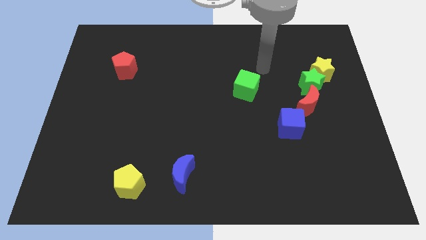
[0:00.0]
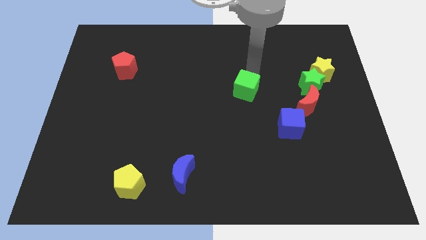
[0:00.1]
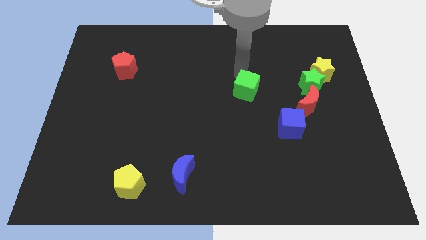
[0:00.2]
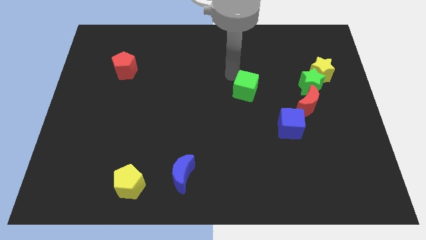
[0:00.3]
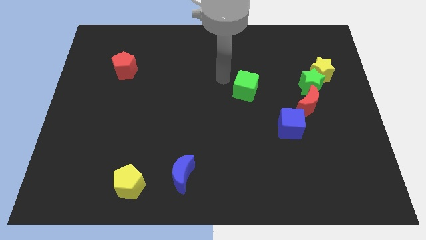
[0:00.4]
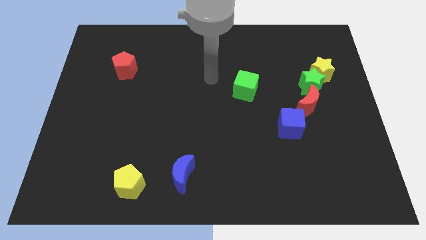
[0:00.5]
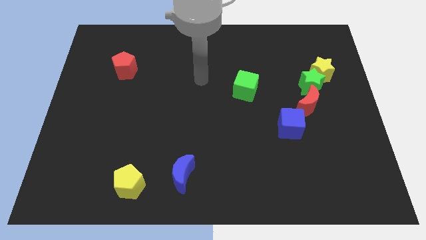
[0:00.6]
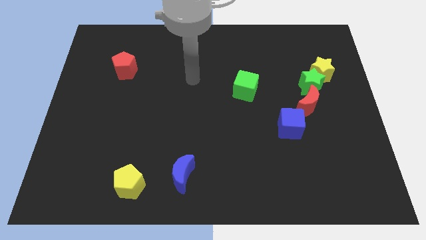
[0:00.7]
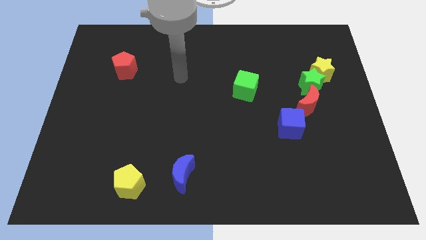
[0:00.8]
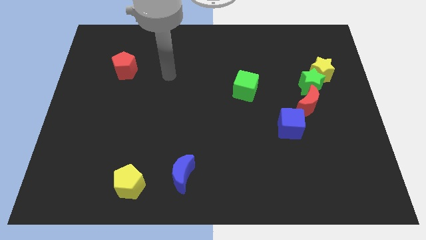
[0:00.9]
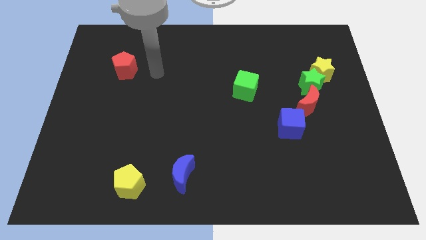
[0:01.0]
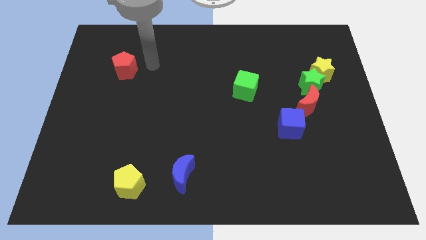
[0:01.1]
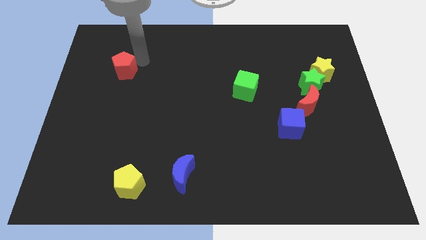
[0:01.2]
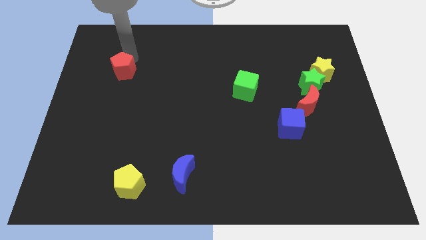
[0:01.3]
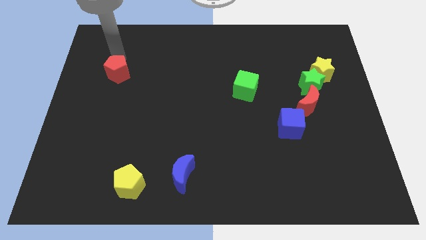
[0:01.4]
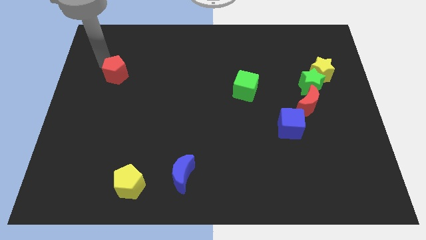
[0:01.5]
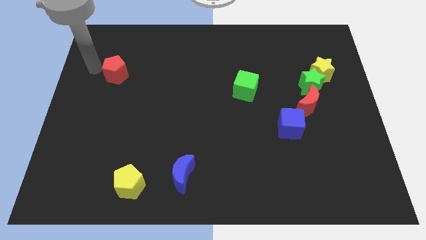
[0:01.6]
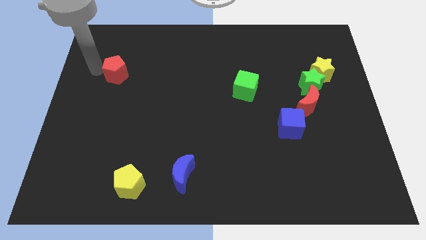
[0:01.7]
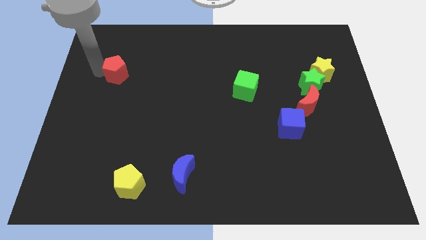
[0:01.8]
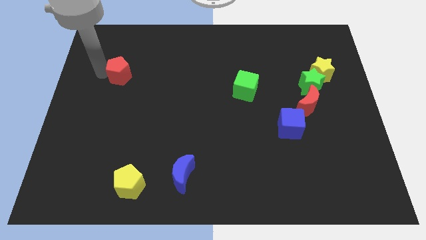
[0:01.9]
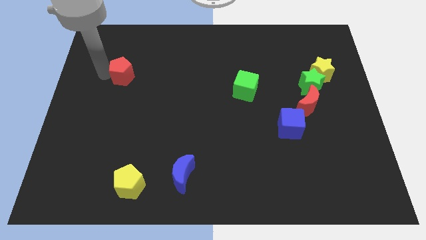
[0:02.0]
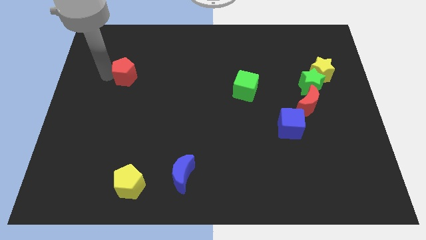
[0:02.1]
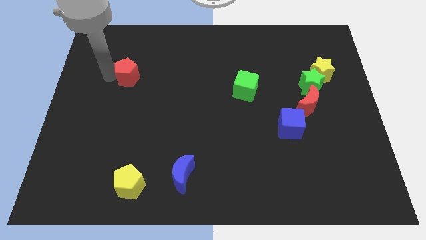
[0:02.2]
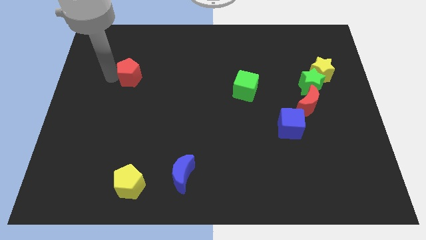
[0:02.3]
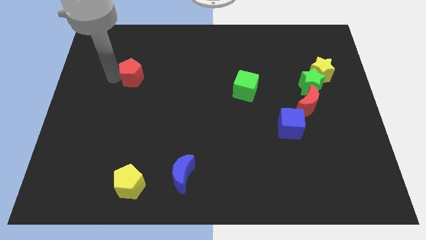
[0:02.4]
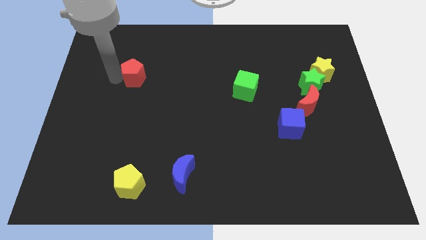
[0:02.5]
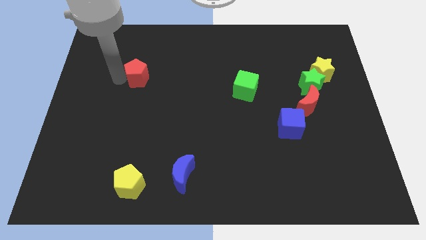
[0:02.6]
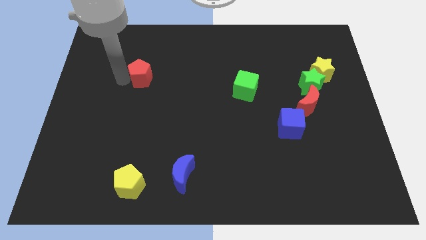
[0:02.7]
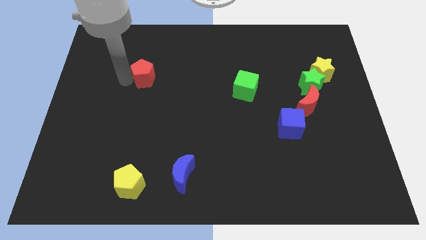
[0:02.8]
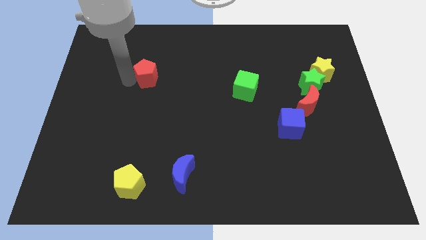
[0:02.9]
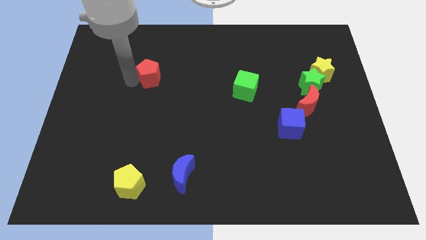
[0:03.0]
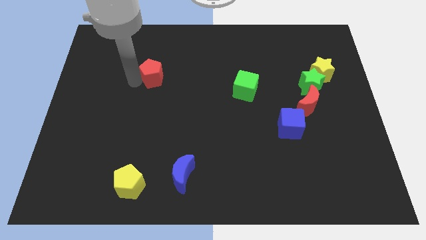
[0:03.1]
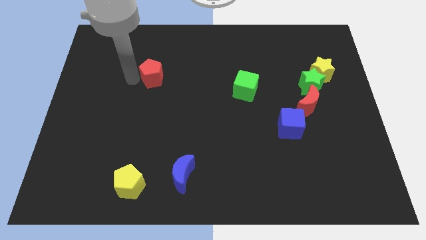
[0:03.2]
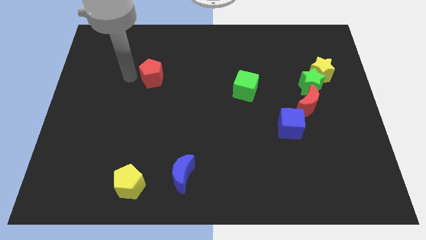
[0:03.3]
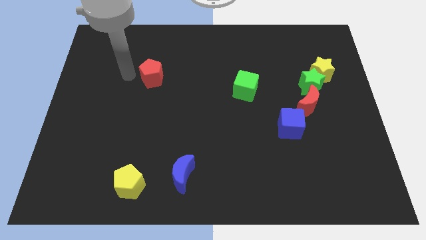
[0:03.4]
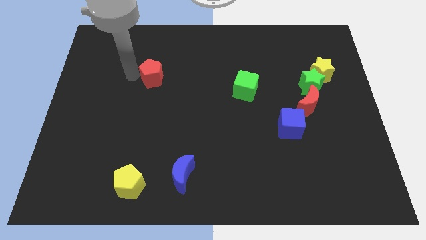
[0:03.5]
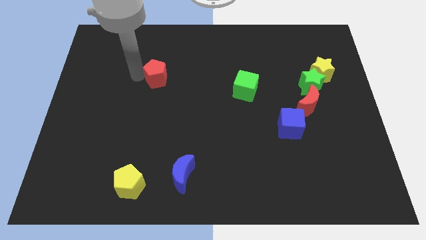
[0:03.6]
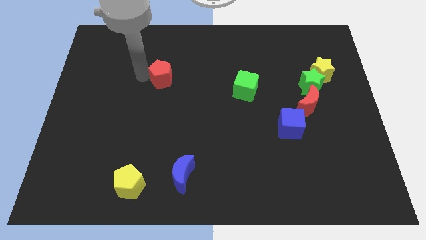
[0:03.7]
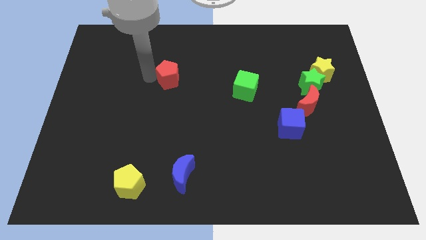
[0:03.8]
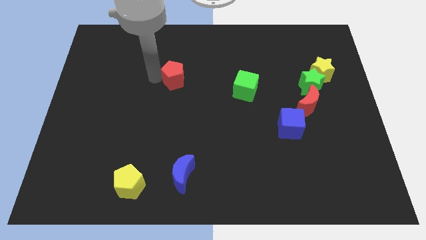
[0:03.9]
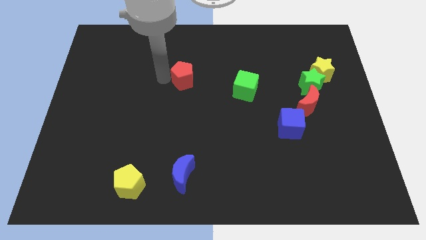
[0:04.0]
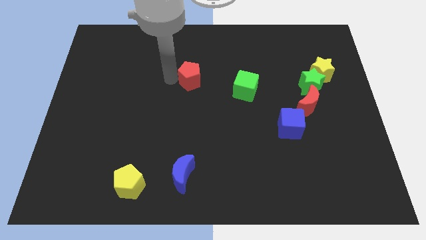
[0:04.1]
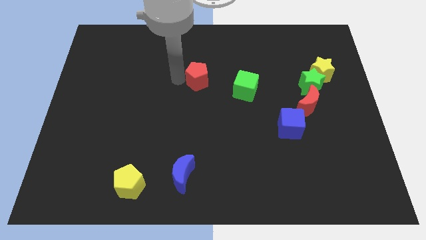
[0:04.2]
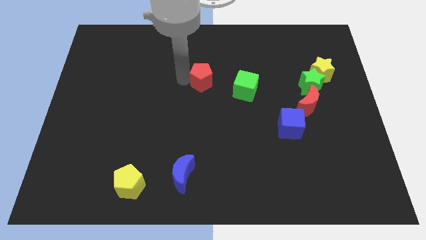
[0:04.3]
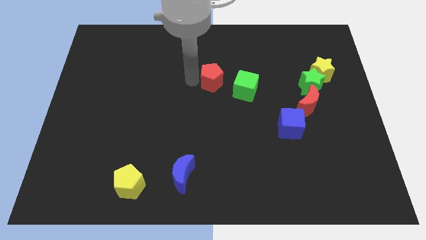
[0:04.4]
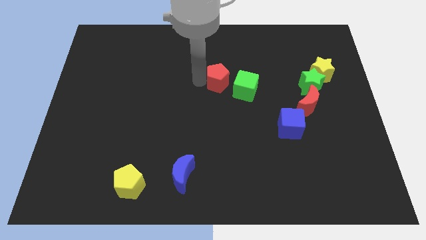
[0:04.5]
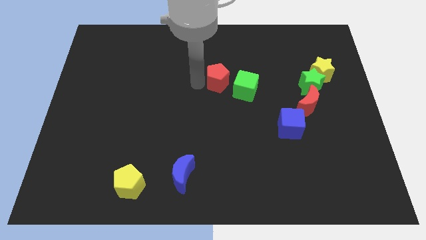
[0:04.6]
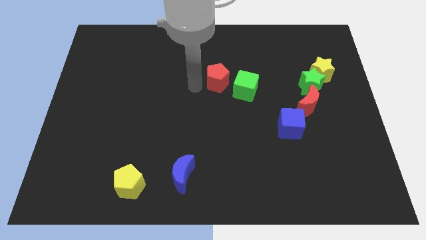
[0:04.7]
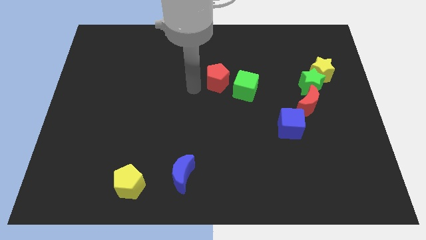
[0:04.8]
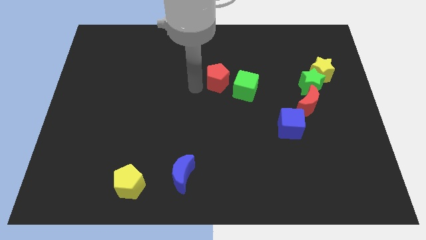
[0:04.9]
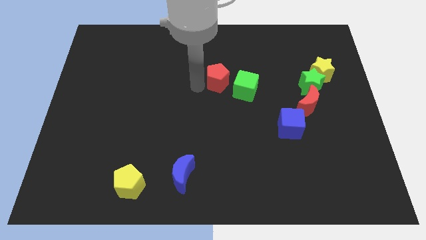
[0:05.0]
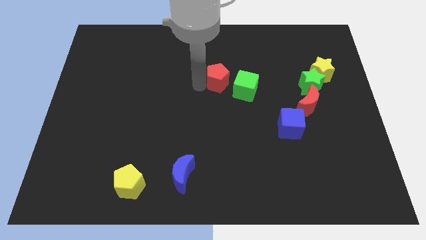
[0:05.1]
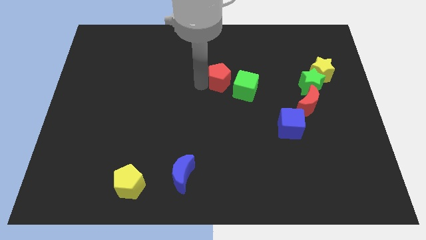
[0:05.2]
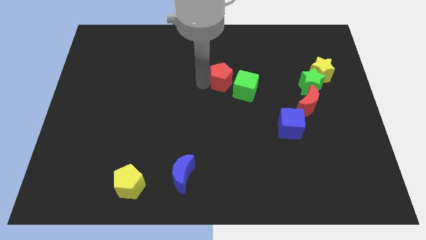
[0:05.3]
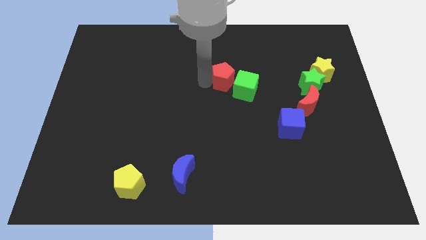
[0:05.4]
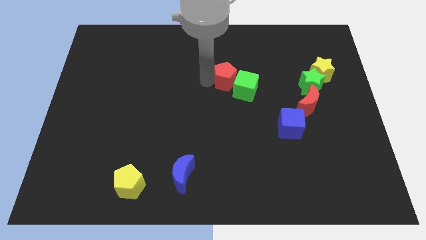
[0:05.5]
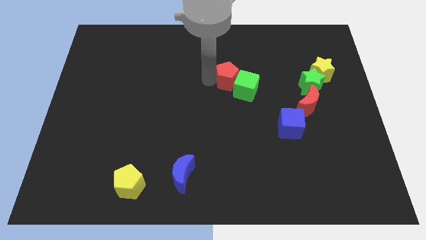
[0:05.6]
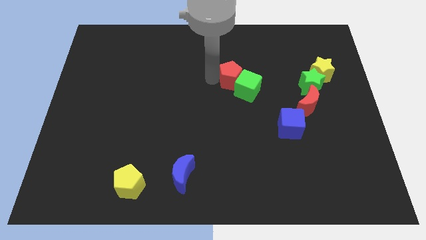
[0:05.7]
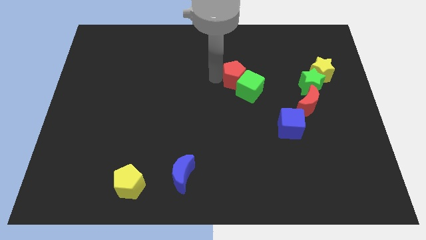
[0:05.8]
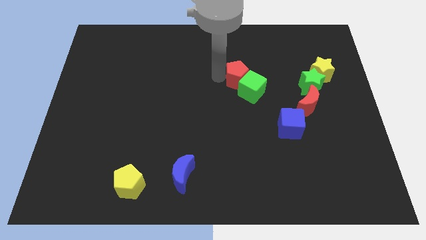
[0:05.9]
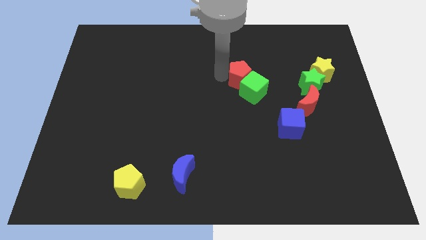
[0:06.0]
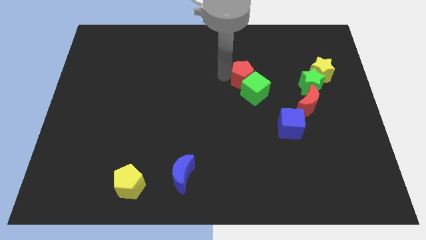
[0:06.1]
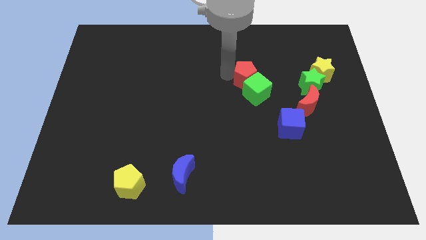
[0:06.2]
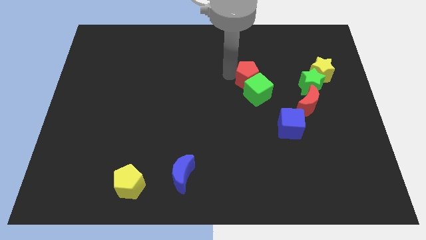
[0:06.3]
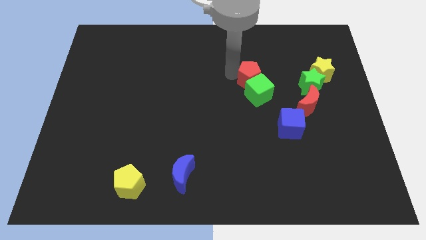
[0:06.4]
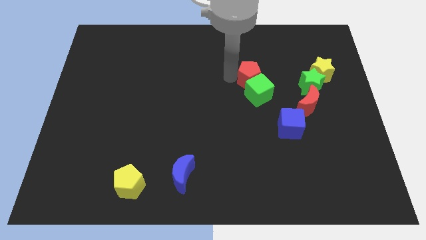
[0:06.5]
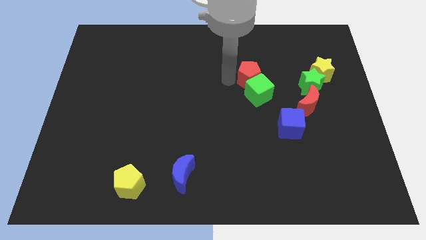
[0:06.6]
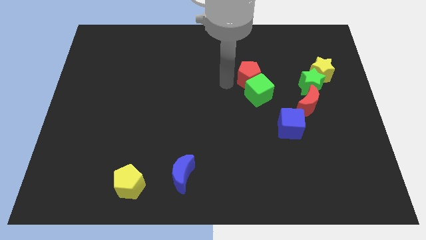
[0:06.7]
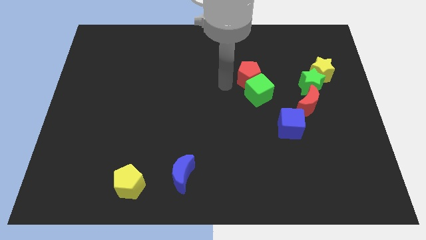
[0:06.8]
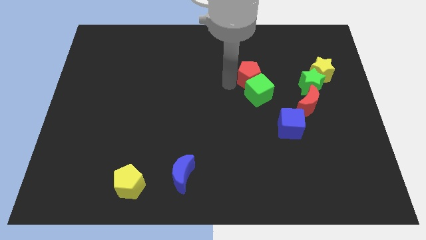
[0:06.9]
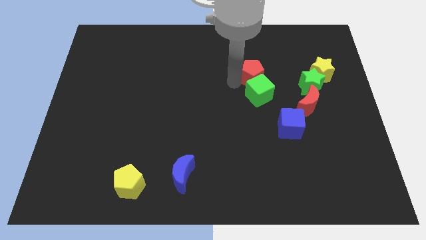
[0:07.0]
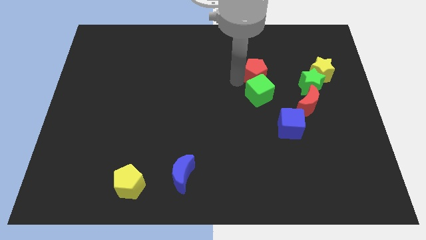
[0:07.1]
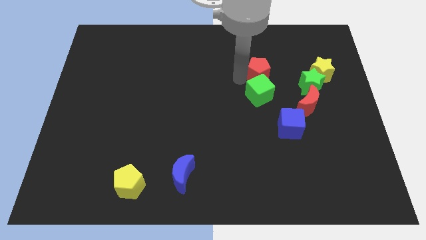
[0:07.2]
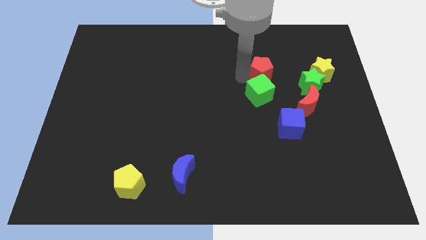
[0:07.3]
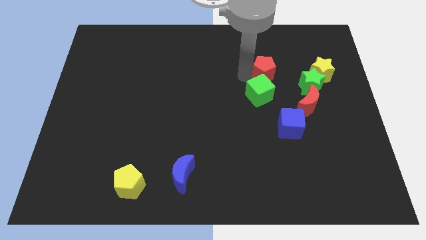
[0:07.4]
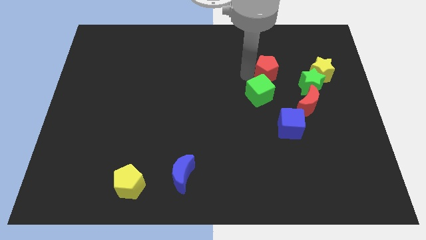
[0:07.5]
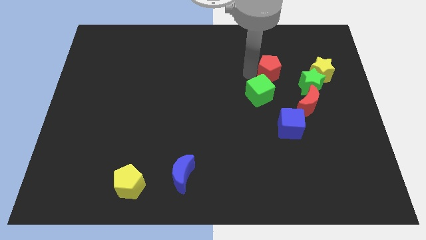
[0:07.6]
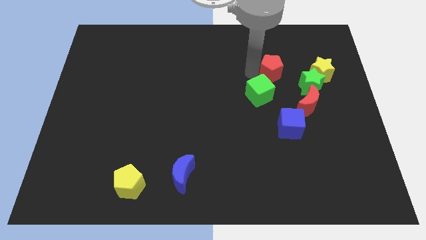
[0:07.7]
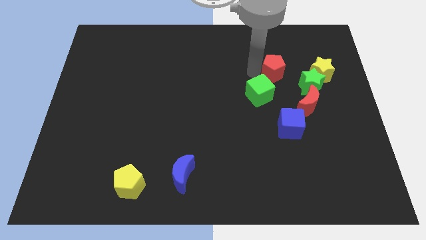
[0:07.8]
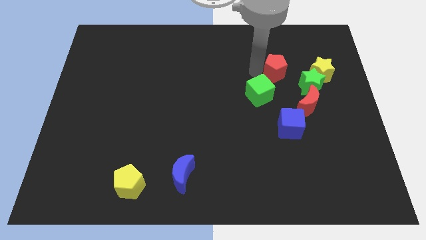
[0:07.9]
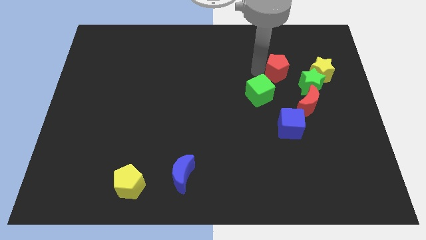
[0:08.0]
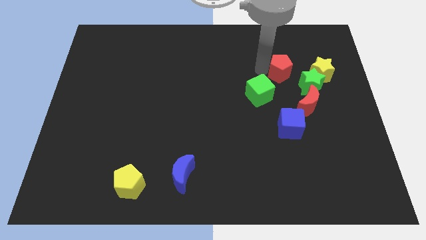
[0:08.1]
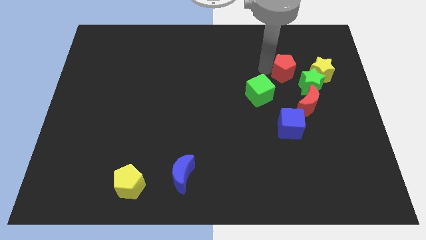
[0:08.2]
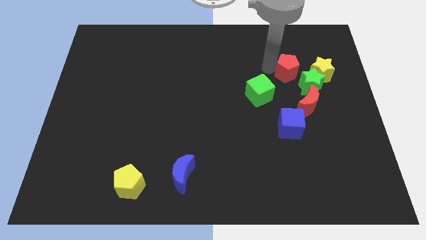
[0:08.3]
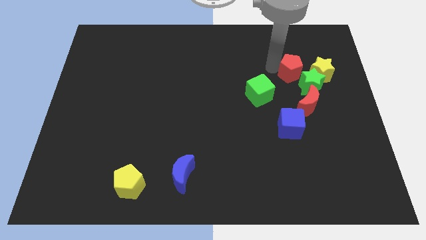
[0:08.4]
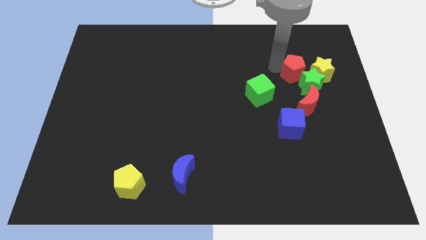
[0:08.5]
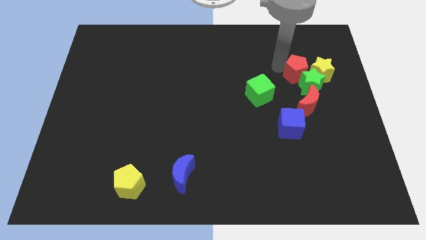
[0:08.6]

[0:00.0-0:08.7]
slide the red pentagon towards the yellow star
